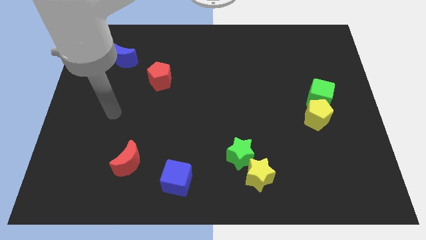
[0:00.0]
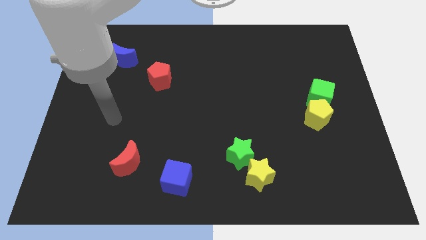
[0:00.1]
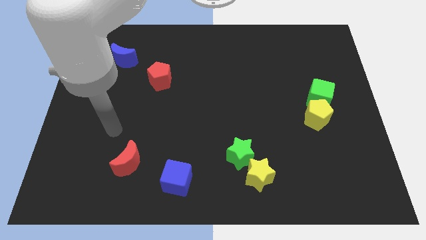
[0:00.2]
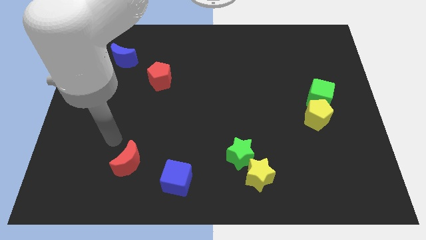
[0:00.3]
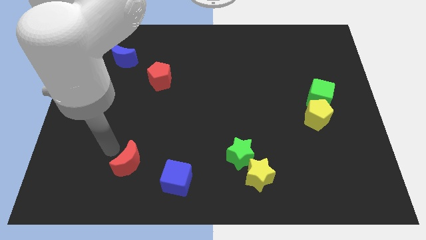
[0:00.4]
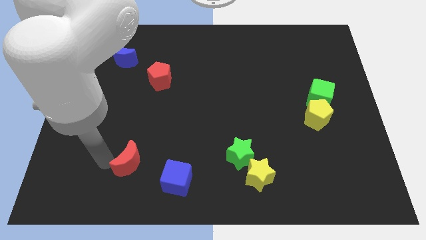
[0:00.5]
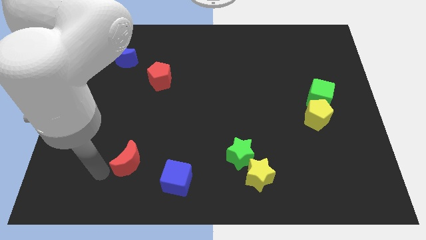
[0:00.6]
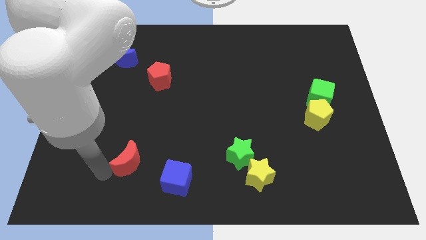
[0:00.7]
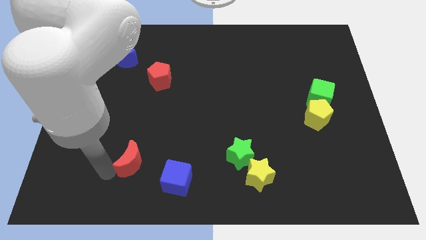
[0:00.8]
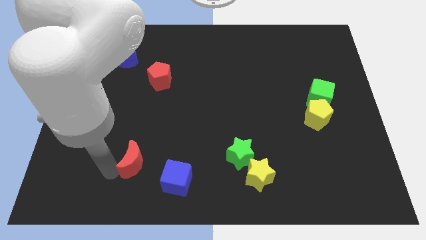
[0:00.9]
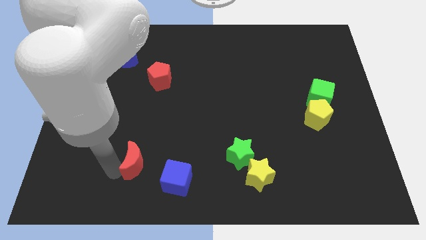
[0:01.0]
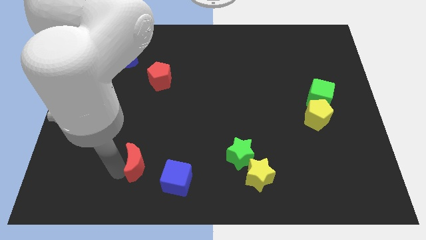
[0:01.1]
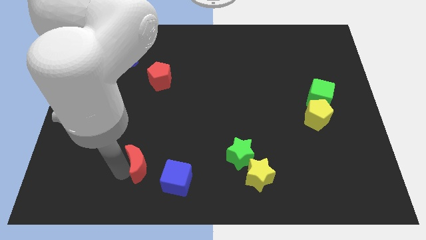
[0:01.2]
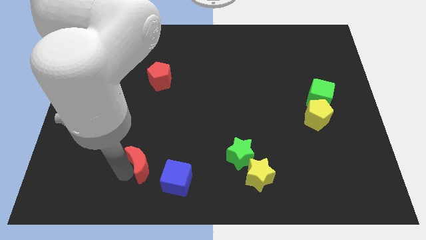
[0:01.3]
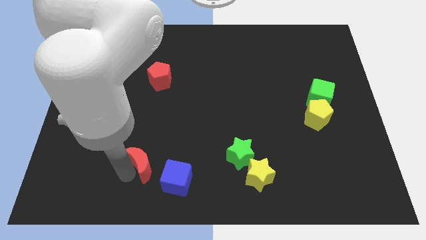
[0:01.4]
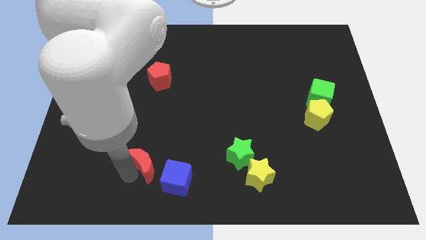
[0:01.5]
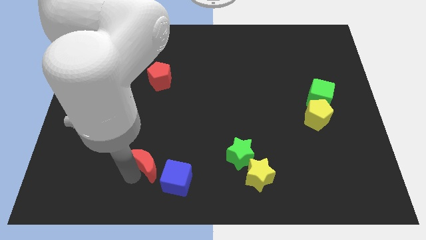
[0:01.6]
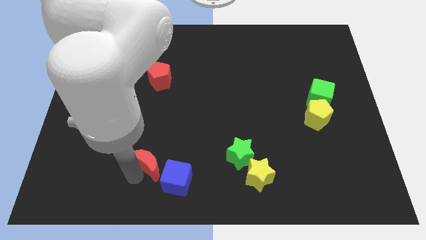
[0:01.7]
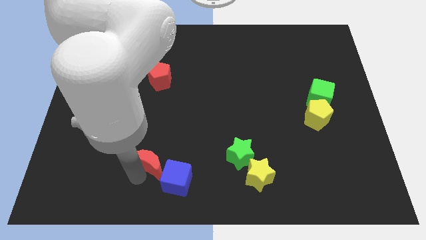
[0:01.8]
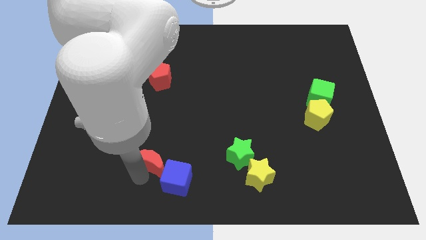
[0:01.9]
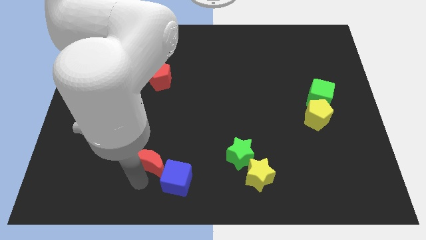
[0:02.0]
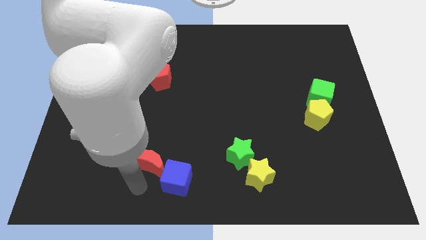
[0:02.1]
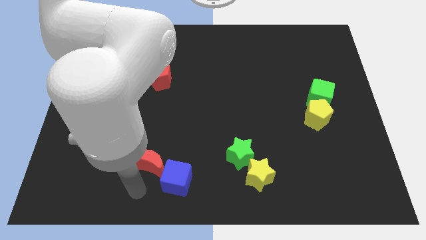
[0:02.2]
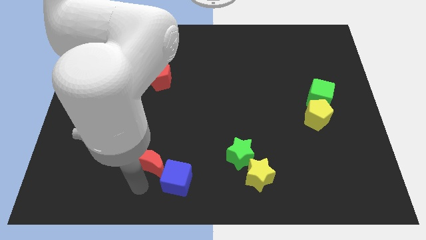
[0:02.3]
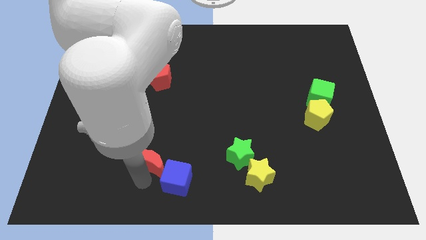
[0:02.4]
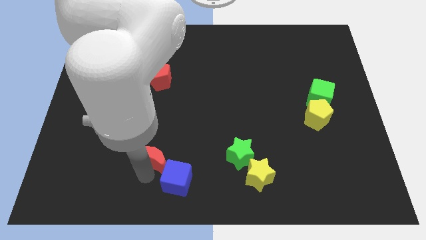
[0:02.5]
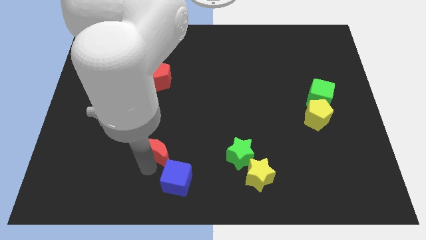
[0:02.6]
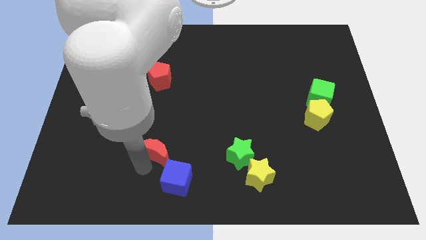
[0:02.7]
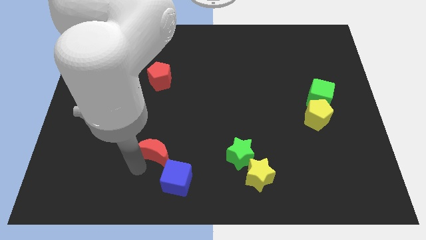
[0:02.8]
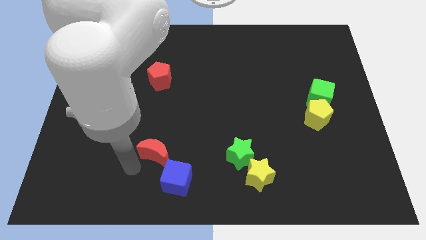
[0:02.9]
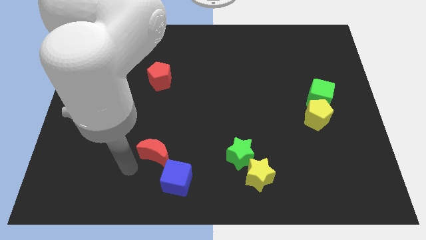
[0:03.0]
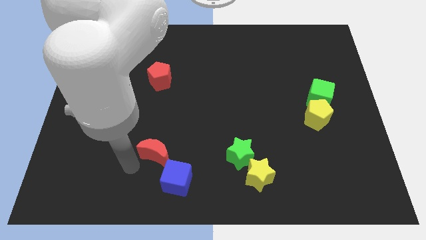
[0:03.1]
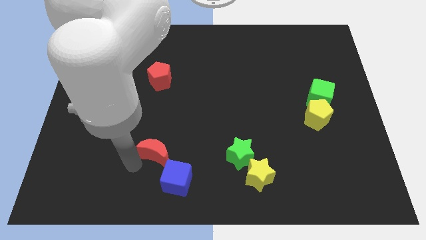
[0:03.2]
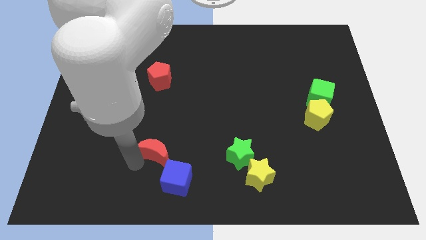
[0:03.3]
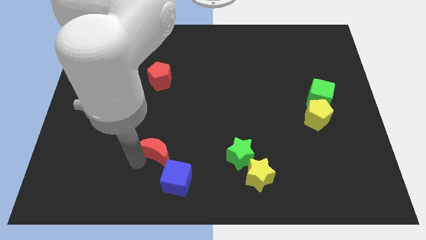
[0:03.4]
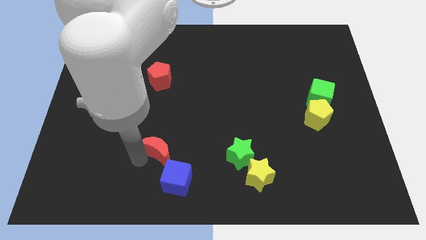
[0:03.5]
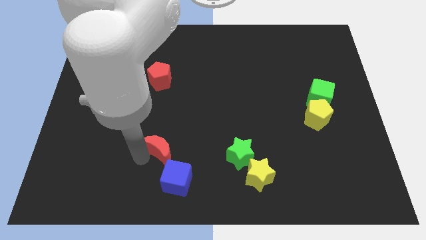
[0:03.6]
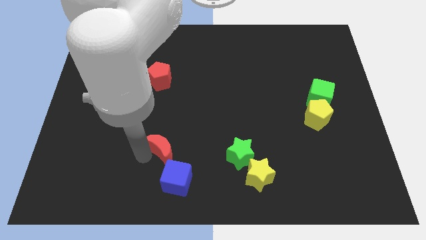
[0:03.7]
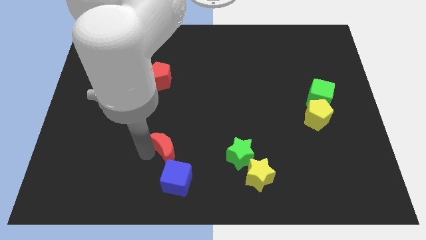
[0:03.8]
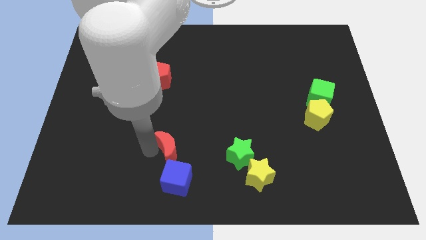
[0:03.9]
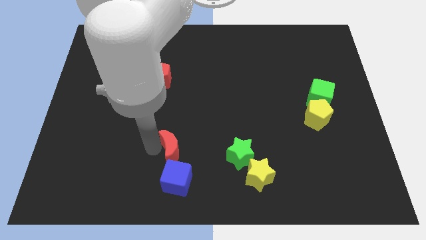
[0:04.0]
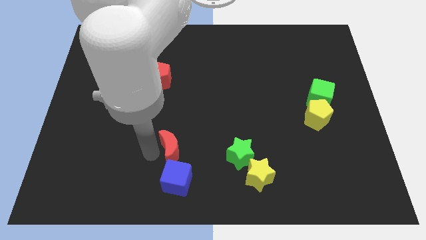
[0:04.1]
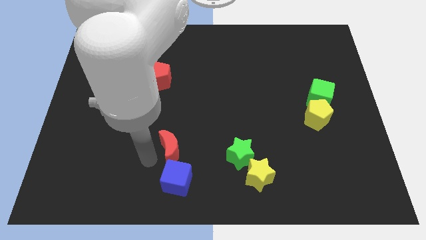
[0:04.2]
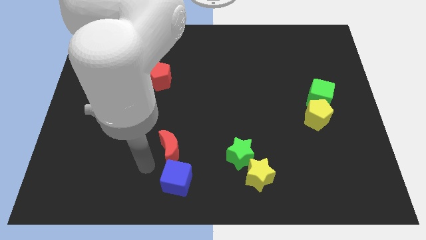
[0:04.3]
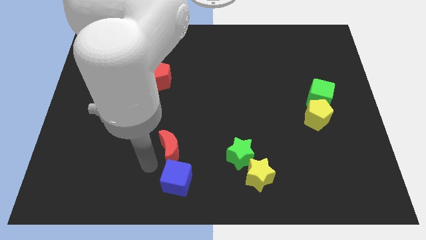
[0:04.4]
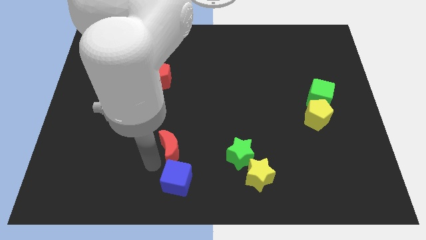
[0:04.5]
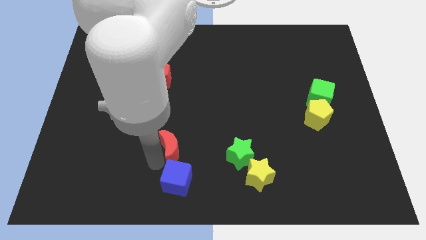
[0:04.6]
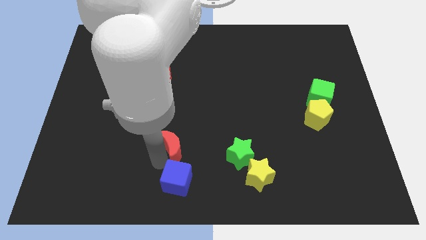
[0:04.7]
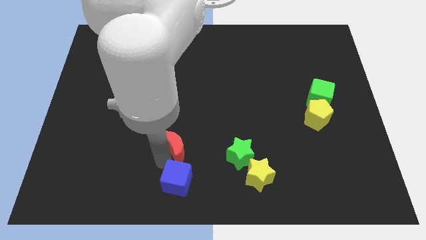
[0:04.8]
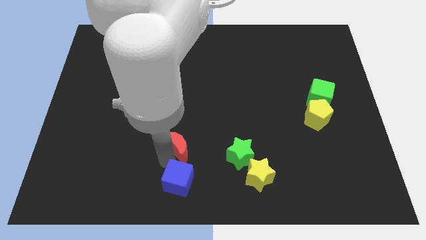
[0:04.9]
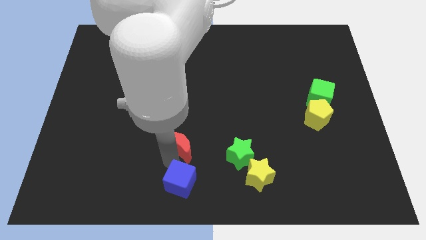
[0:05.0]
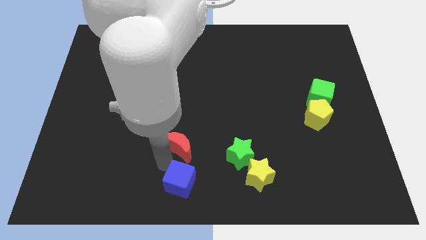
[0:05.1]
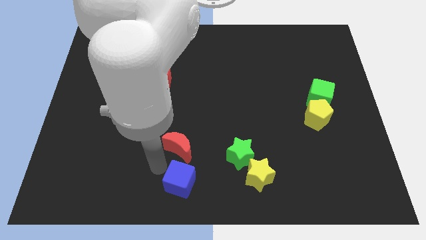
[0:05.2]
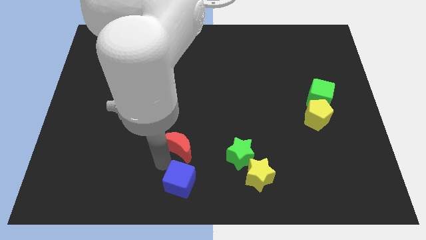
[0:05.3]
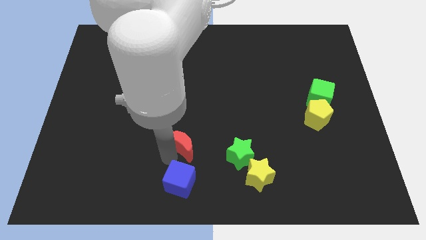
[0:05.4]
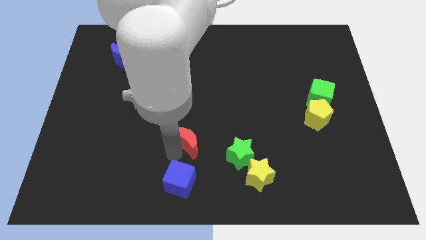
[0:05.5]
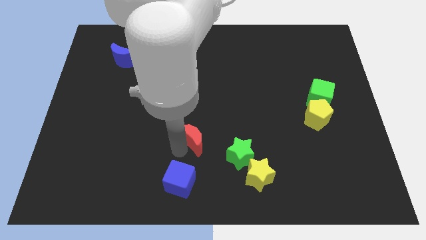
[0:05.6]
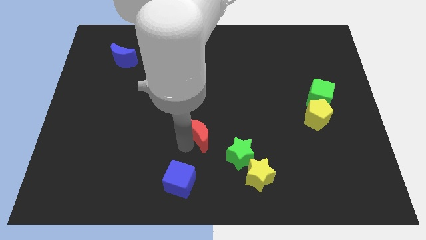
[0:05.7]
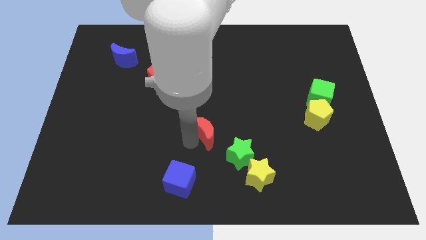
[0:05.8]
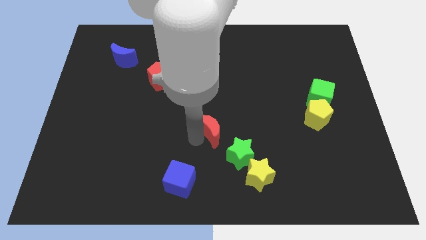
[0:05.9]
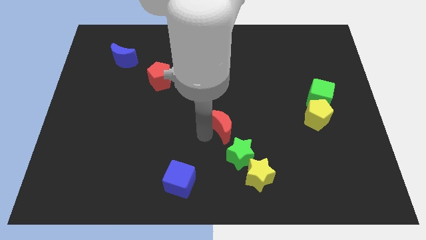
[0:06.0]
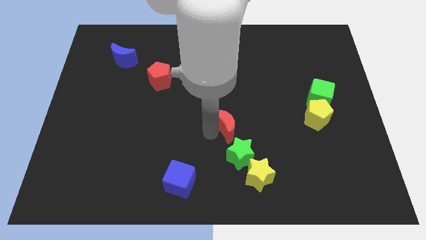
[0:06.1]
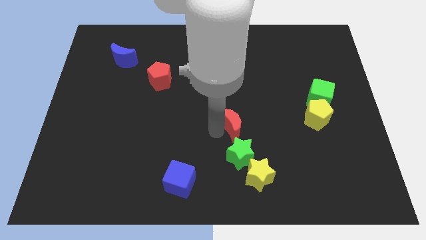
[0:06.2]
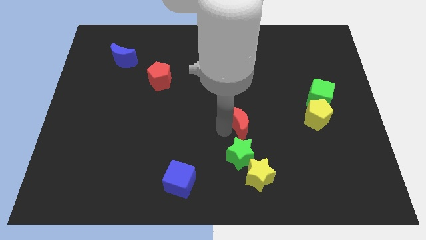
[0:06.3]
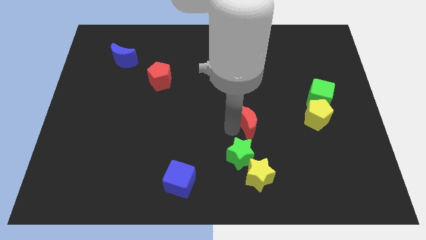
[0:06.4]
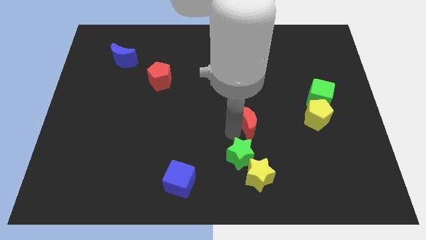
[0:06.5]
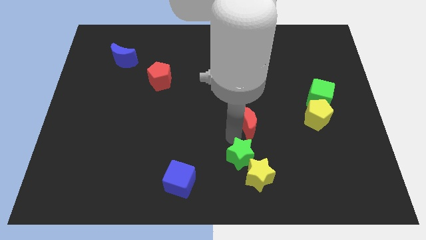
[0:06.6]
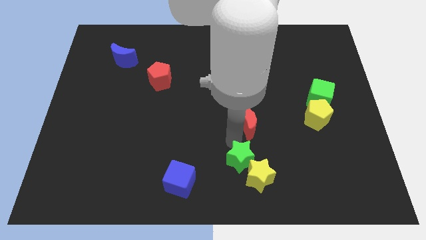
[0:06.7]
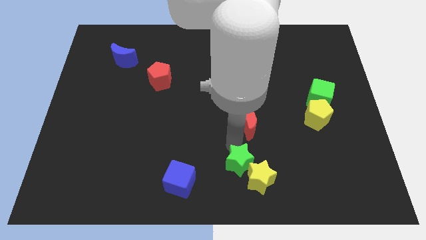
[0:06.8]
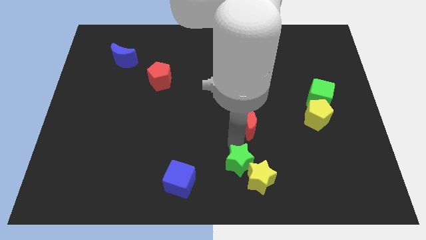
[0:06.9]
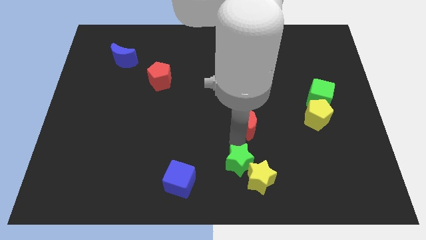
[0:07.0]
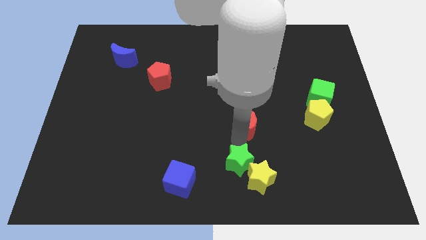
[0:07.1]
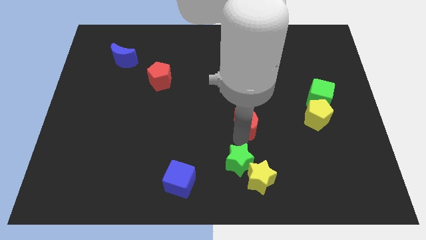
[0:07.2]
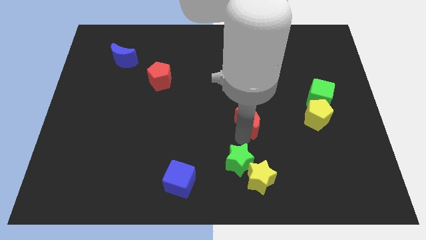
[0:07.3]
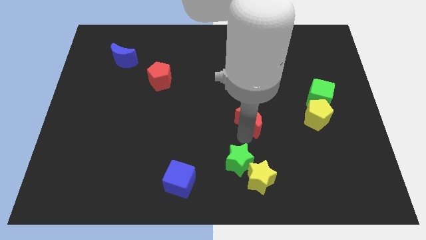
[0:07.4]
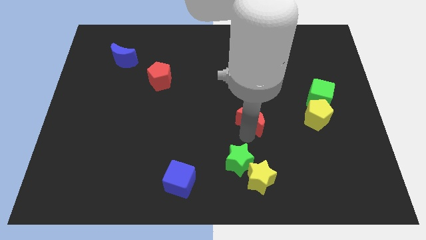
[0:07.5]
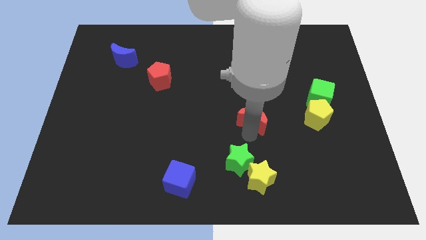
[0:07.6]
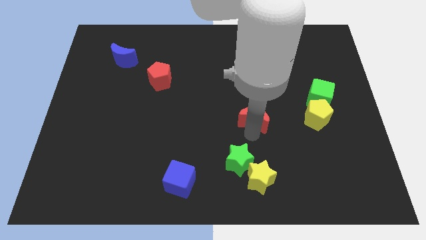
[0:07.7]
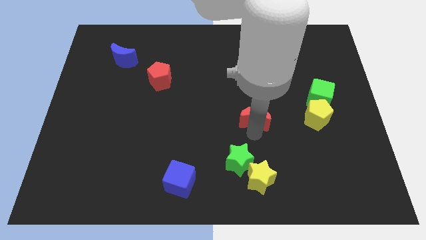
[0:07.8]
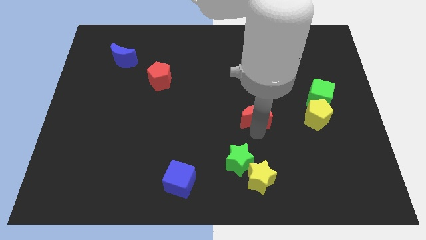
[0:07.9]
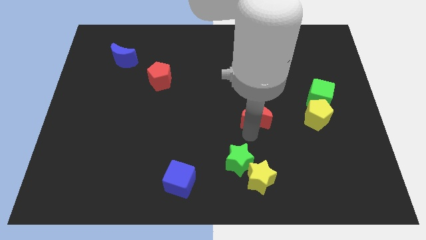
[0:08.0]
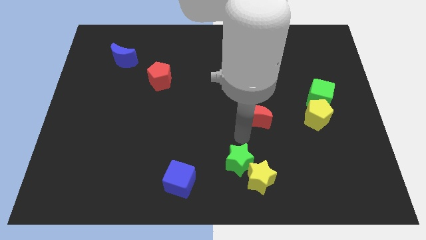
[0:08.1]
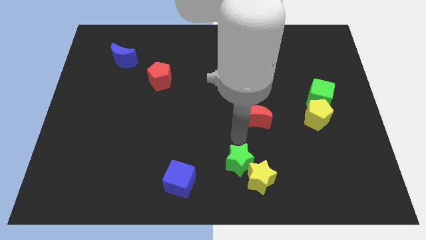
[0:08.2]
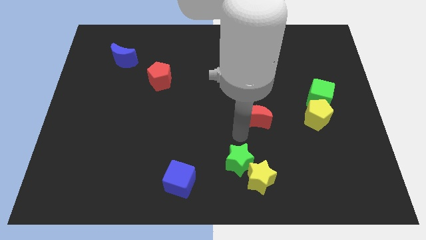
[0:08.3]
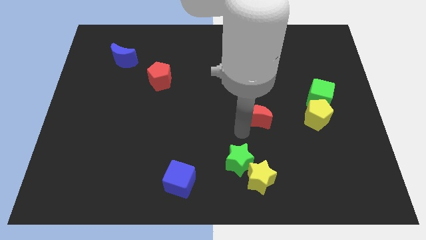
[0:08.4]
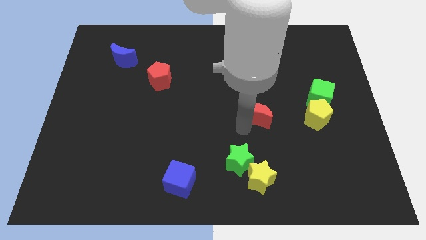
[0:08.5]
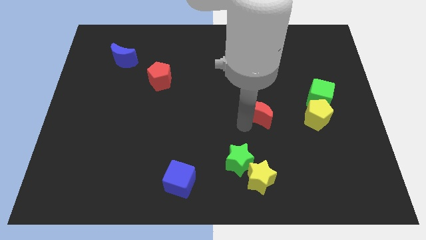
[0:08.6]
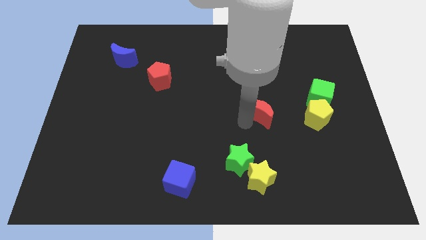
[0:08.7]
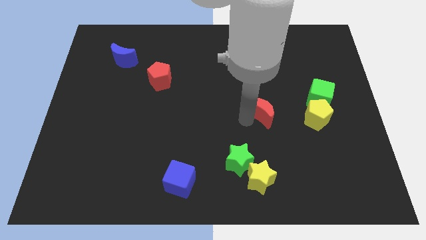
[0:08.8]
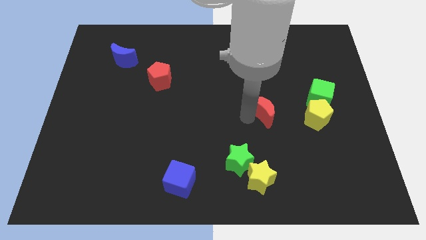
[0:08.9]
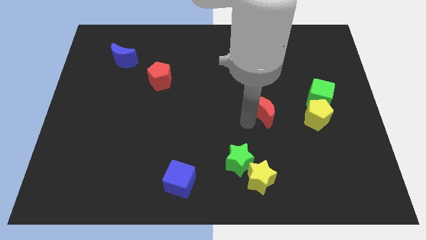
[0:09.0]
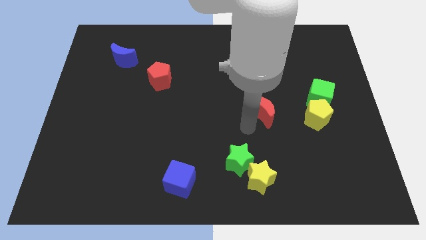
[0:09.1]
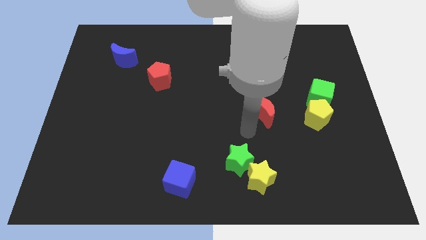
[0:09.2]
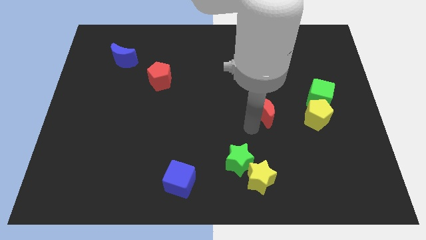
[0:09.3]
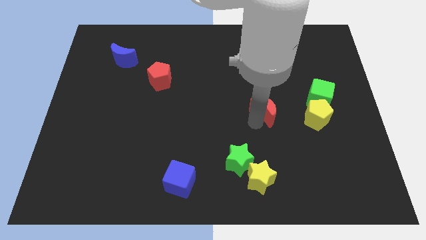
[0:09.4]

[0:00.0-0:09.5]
move the red moon left of the green cube
